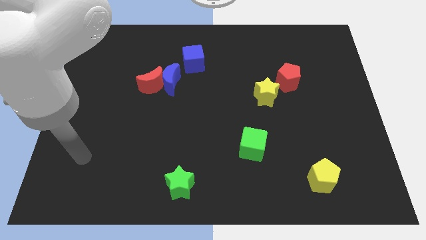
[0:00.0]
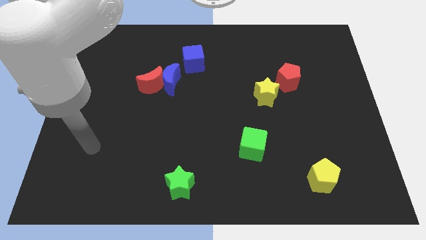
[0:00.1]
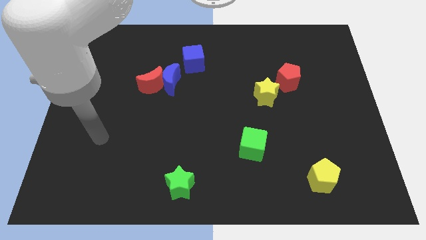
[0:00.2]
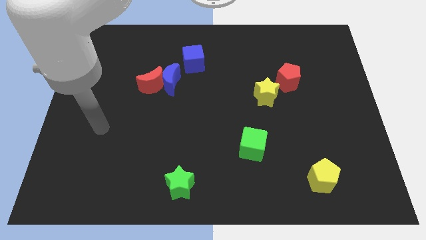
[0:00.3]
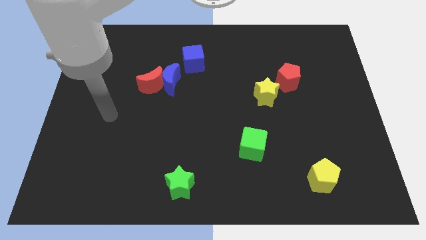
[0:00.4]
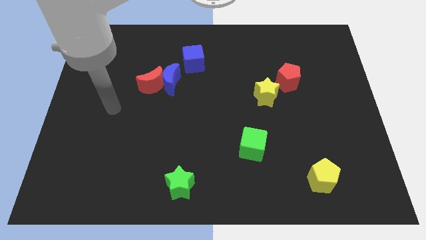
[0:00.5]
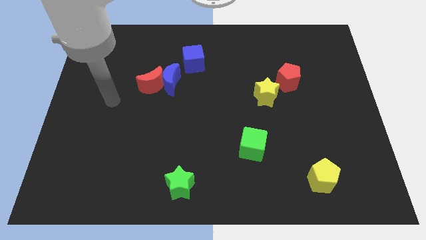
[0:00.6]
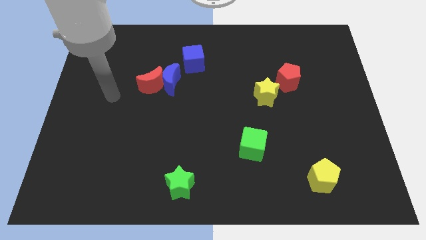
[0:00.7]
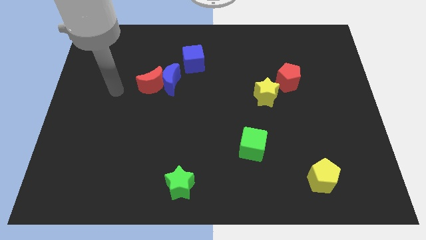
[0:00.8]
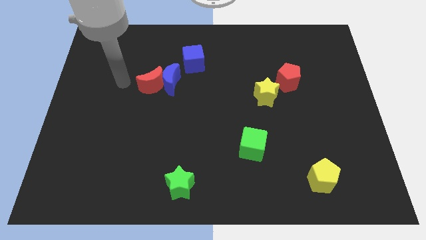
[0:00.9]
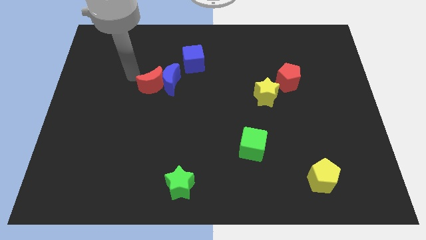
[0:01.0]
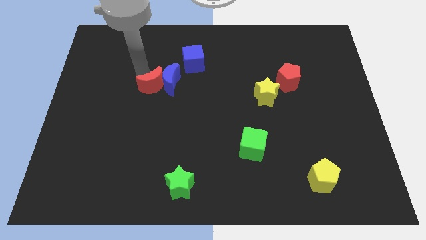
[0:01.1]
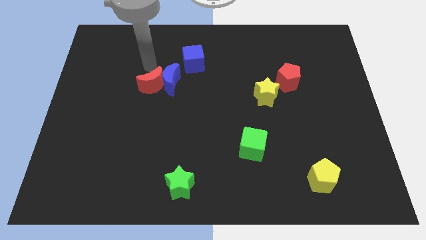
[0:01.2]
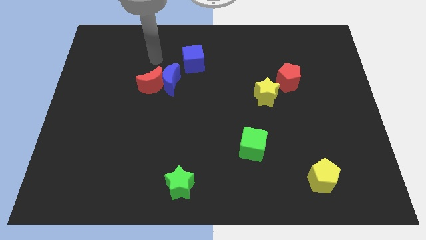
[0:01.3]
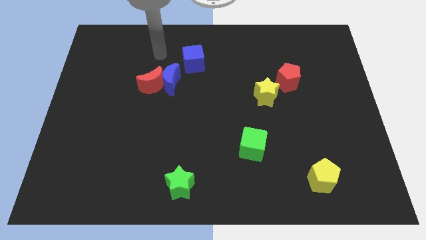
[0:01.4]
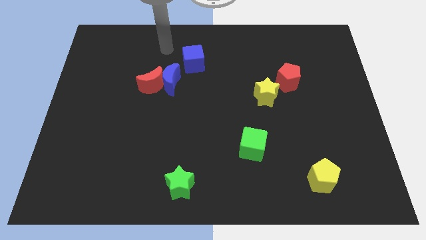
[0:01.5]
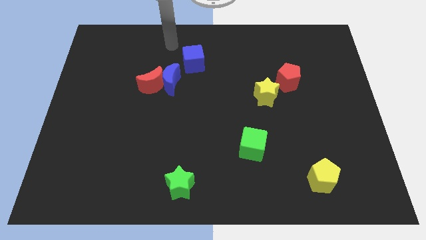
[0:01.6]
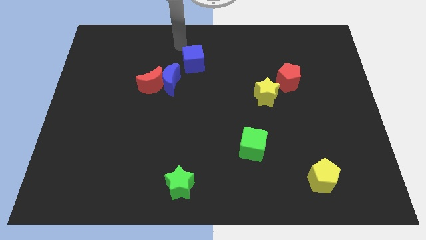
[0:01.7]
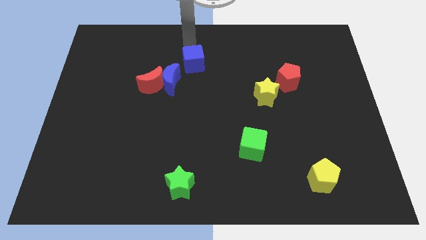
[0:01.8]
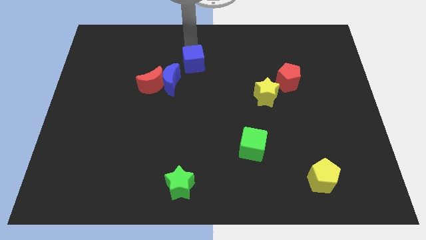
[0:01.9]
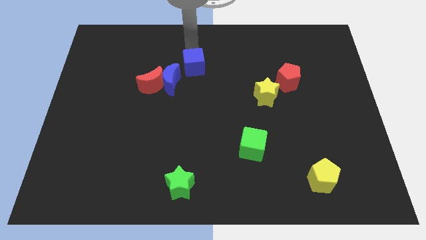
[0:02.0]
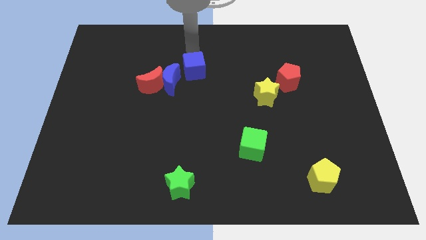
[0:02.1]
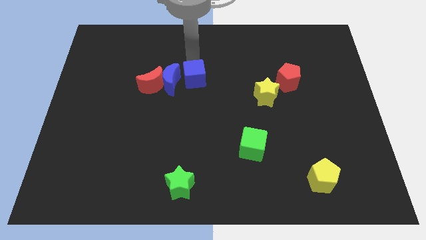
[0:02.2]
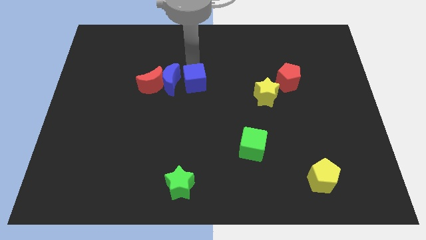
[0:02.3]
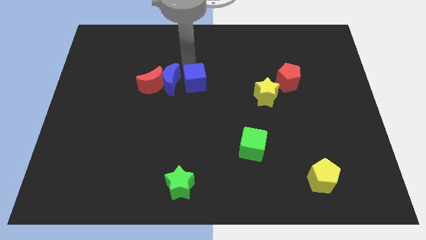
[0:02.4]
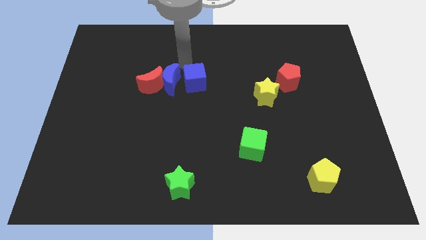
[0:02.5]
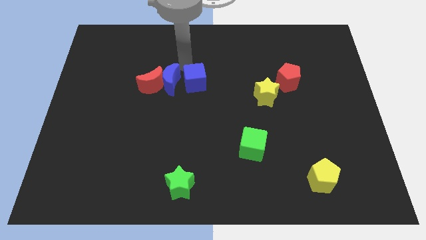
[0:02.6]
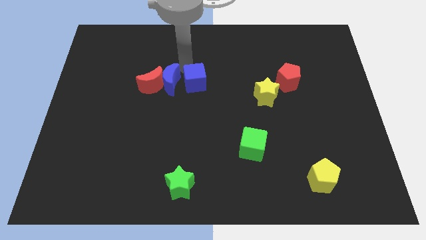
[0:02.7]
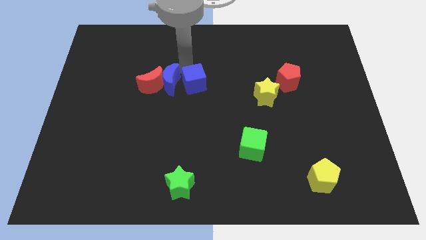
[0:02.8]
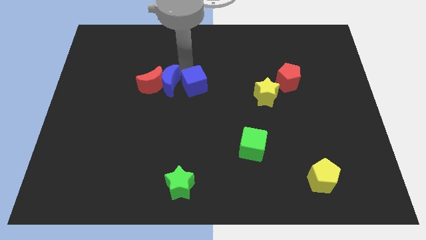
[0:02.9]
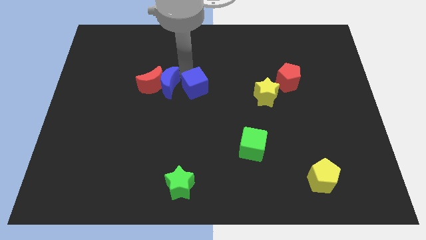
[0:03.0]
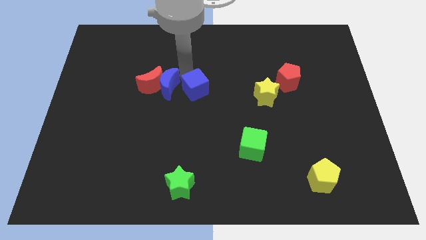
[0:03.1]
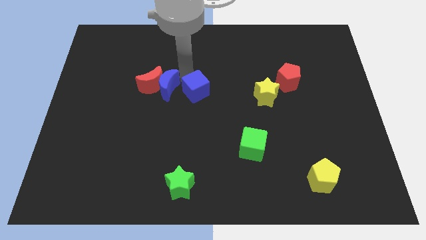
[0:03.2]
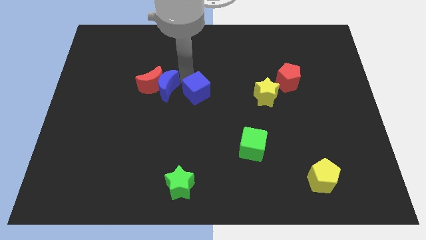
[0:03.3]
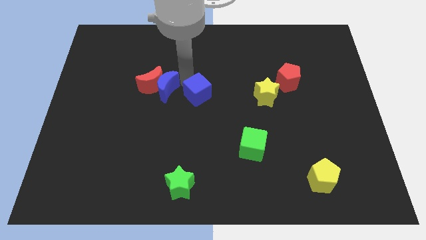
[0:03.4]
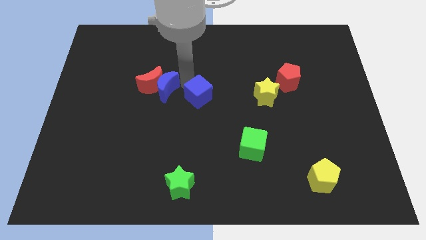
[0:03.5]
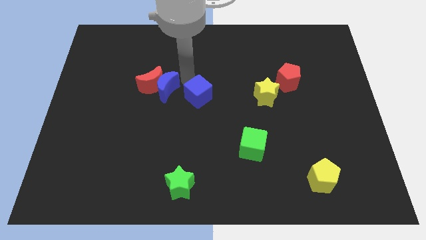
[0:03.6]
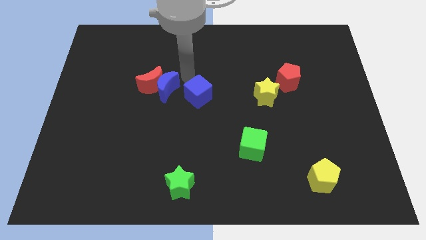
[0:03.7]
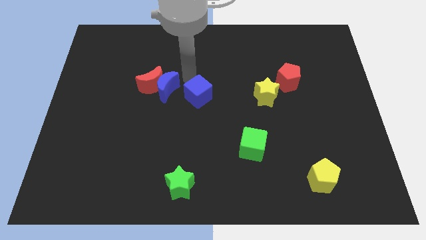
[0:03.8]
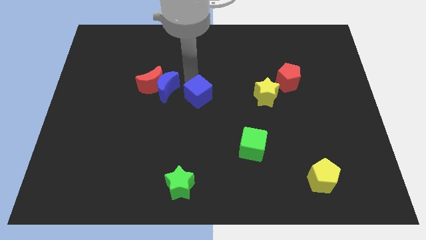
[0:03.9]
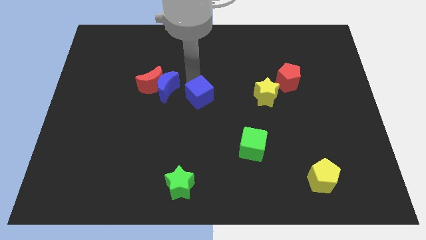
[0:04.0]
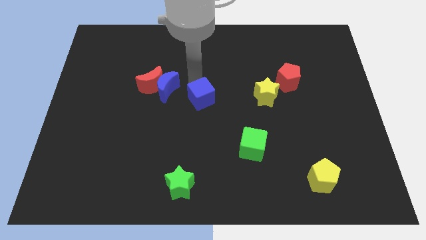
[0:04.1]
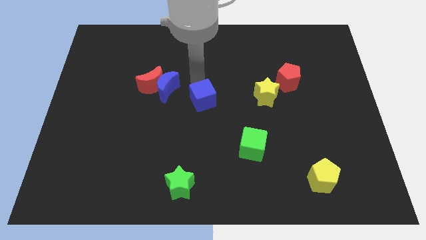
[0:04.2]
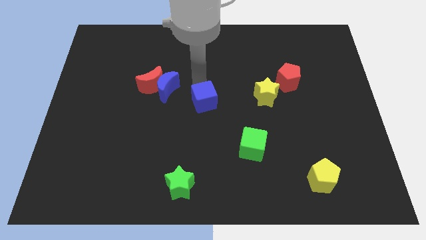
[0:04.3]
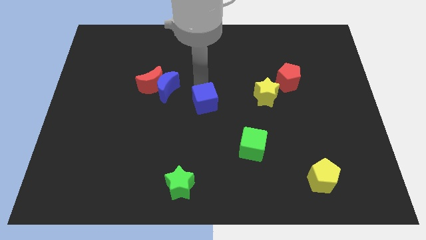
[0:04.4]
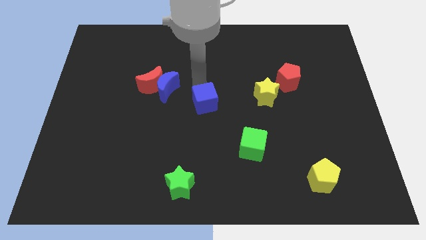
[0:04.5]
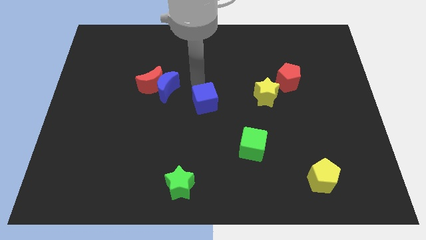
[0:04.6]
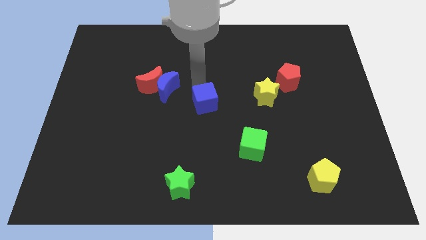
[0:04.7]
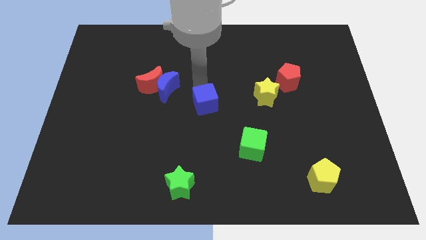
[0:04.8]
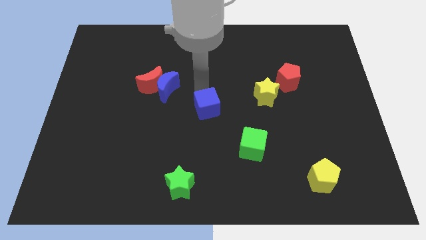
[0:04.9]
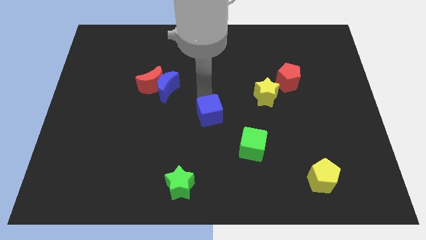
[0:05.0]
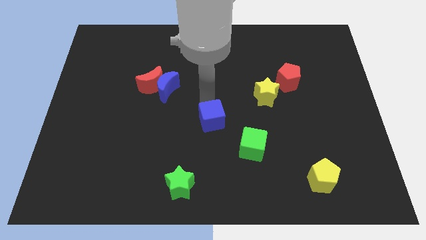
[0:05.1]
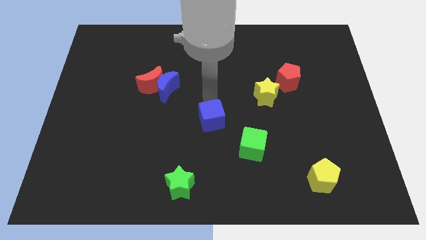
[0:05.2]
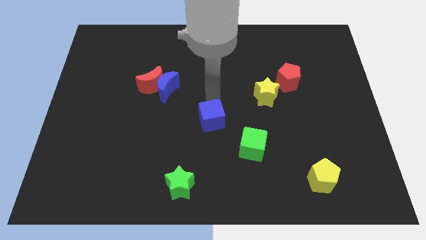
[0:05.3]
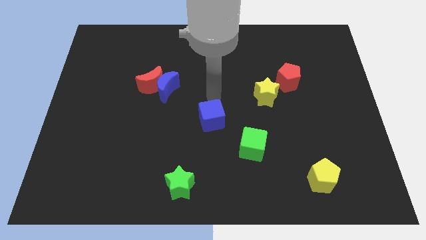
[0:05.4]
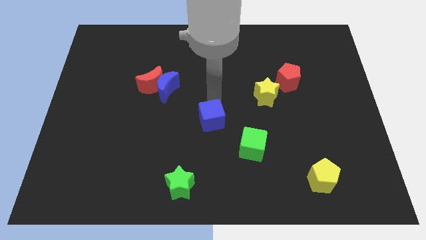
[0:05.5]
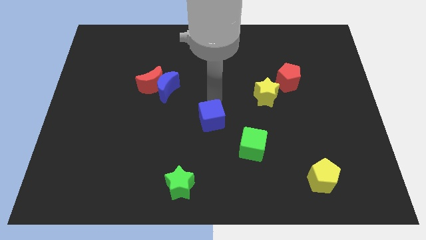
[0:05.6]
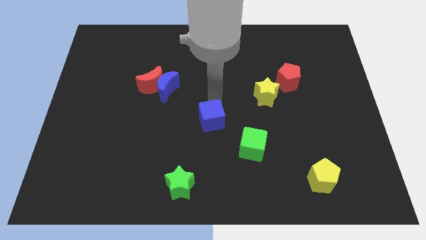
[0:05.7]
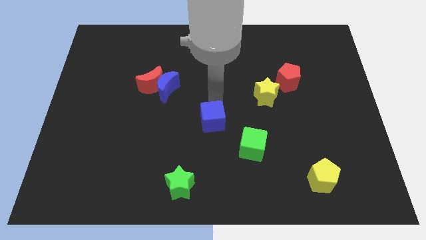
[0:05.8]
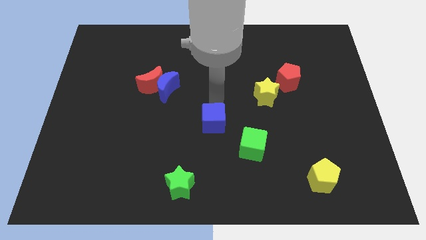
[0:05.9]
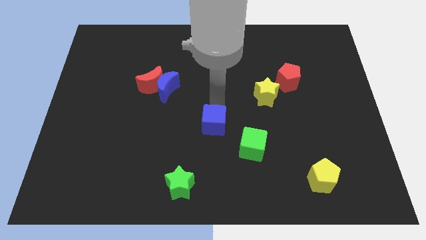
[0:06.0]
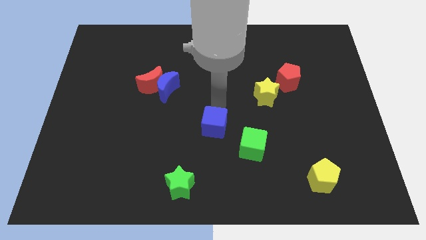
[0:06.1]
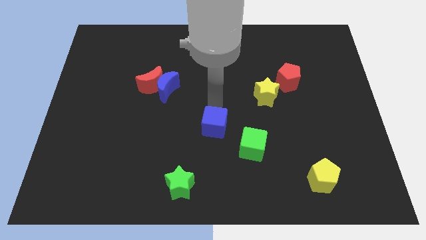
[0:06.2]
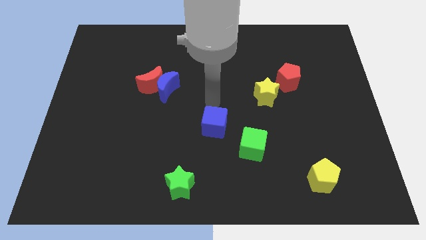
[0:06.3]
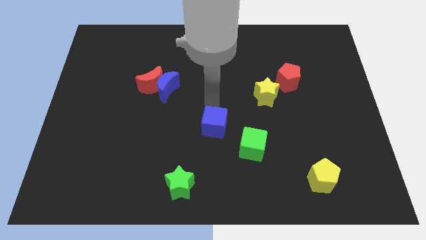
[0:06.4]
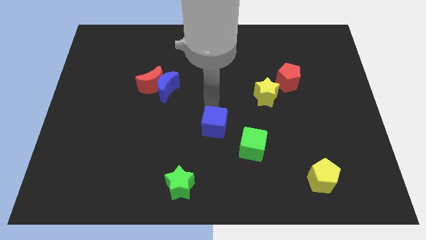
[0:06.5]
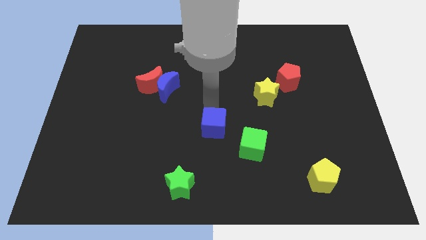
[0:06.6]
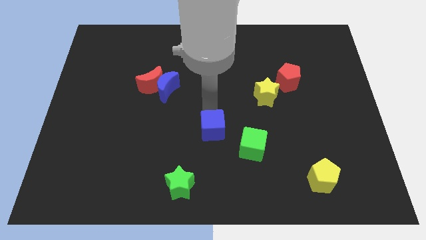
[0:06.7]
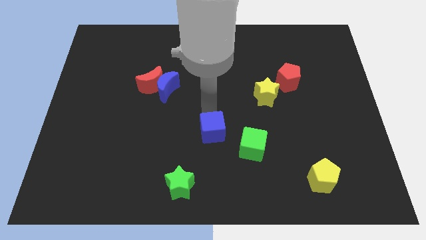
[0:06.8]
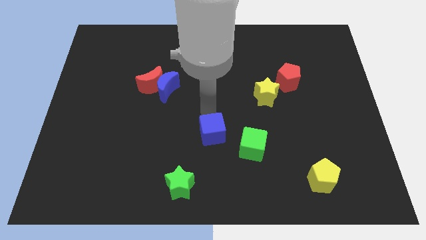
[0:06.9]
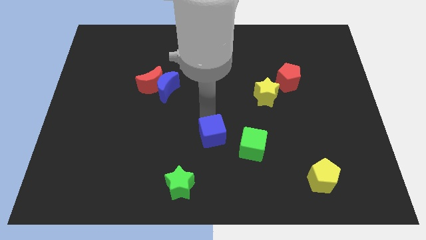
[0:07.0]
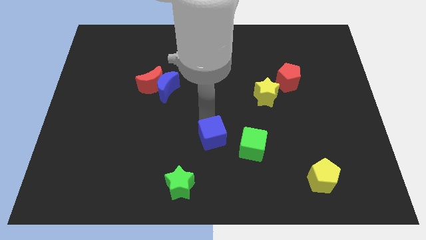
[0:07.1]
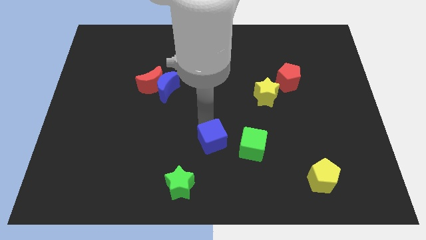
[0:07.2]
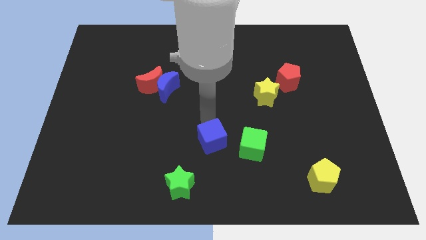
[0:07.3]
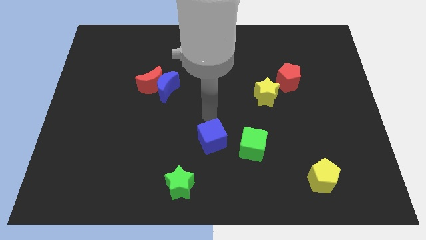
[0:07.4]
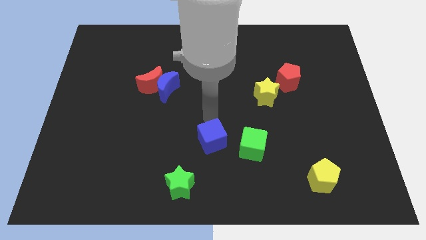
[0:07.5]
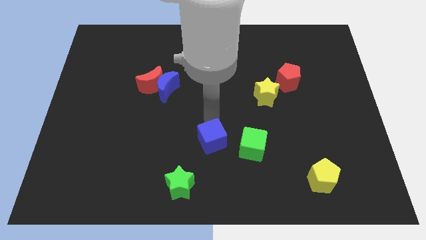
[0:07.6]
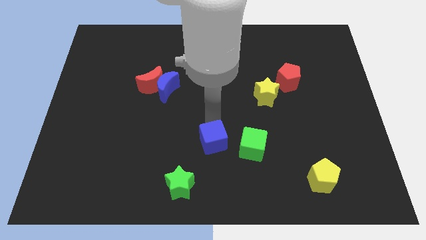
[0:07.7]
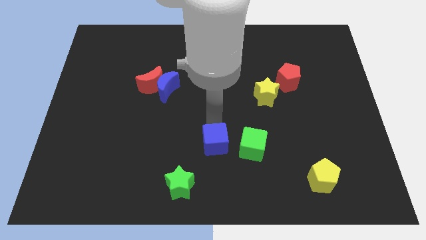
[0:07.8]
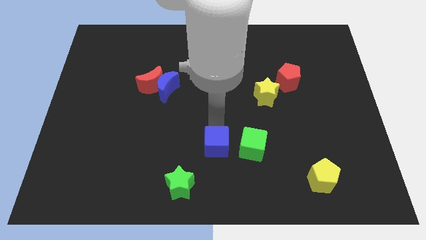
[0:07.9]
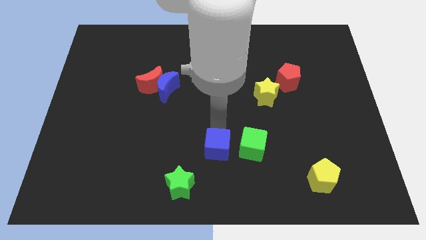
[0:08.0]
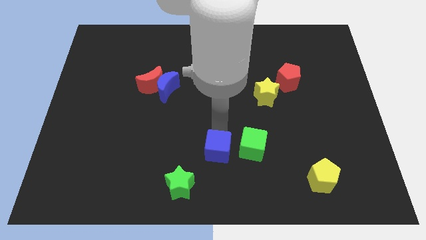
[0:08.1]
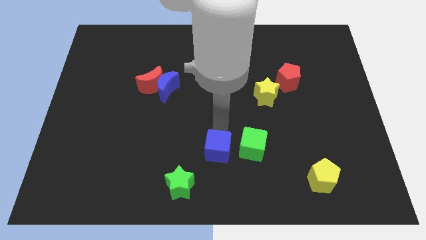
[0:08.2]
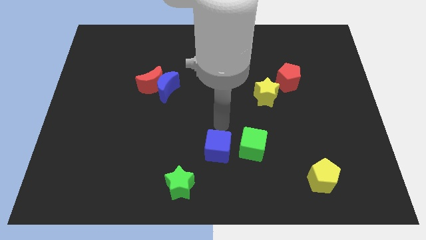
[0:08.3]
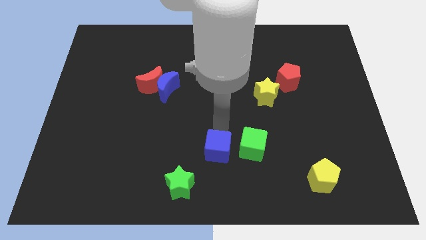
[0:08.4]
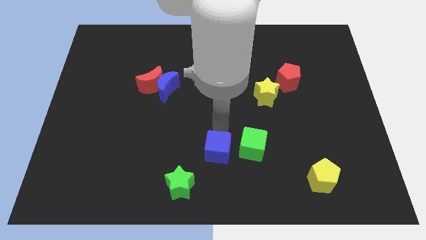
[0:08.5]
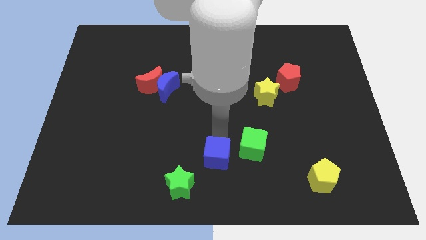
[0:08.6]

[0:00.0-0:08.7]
push the blue cube to the bottom side
